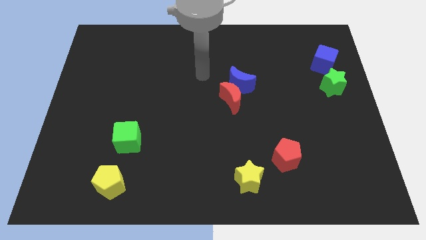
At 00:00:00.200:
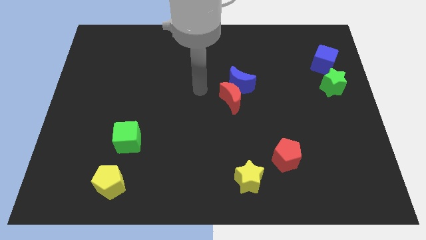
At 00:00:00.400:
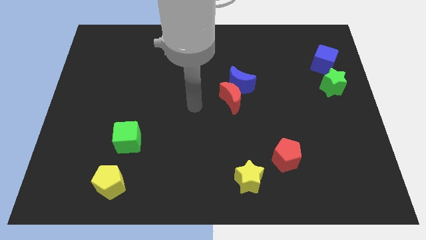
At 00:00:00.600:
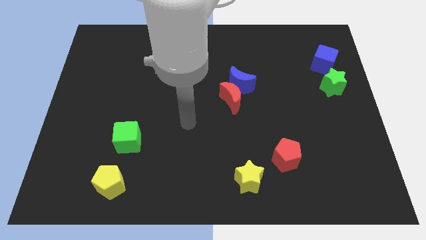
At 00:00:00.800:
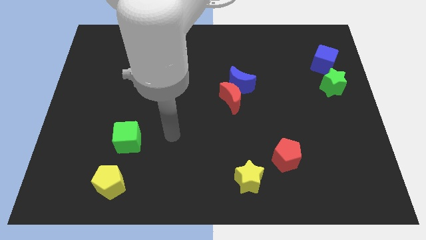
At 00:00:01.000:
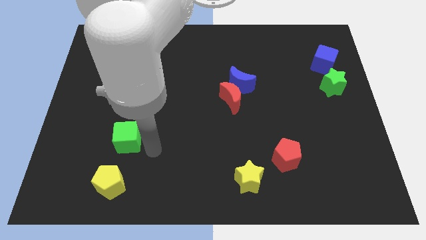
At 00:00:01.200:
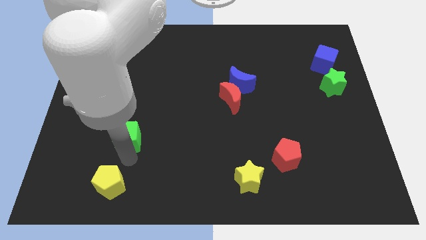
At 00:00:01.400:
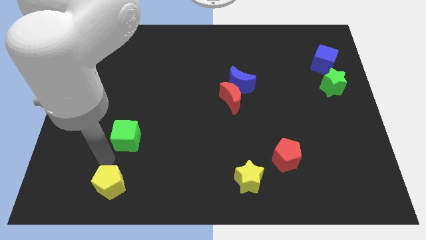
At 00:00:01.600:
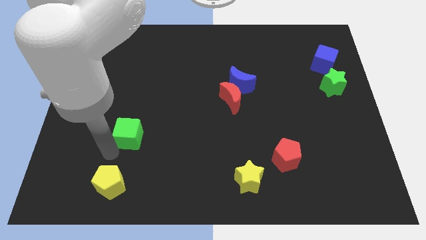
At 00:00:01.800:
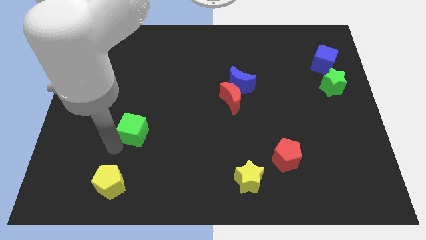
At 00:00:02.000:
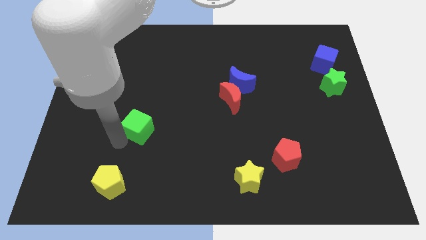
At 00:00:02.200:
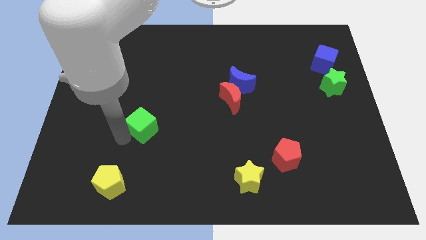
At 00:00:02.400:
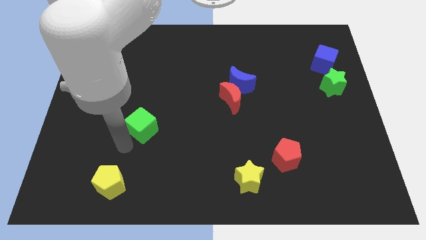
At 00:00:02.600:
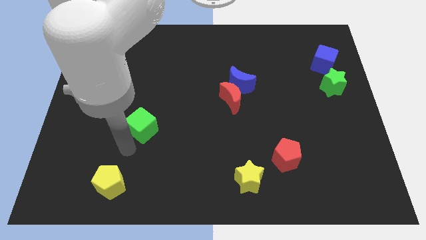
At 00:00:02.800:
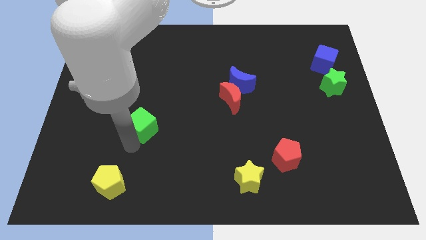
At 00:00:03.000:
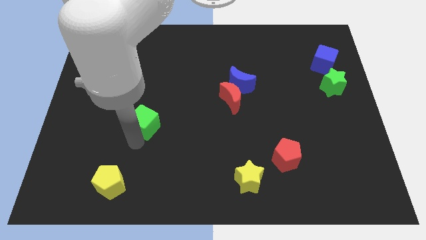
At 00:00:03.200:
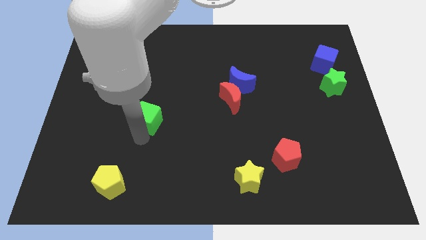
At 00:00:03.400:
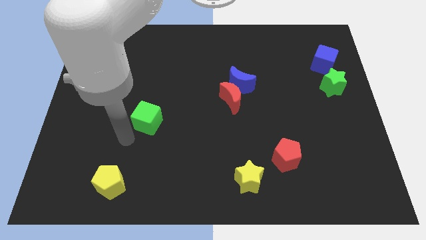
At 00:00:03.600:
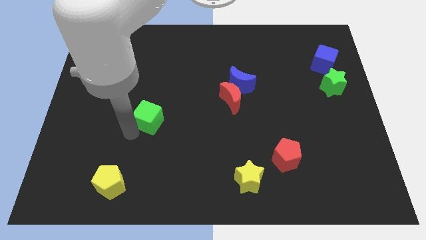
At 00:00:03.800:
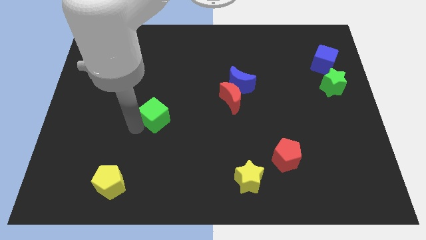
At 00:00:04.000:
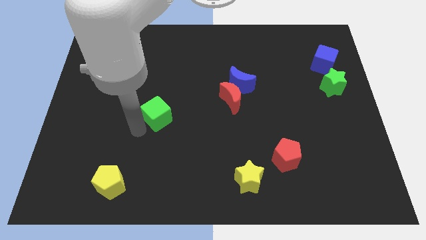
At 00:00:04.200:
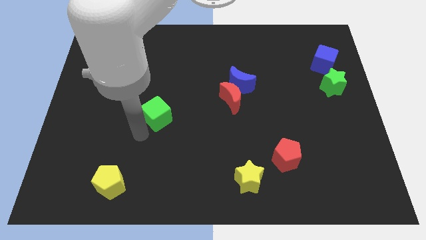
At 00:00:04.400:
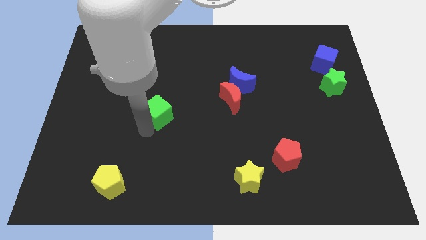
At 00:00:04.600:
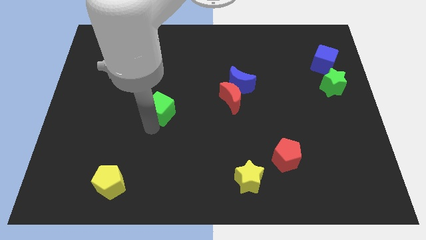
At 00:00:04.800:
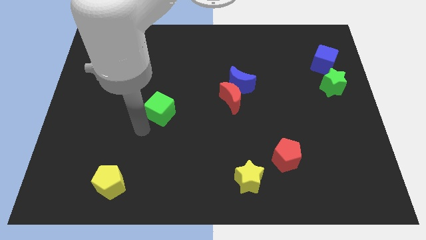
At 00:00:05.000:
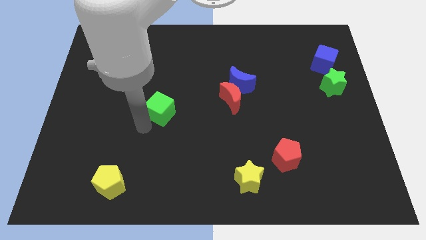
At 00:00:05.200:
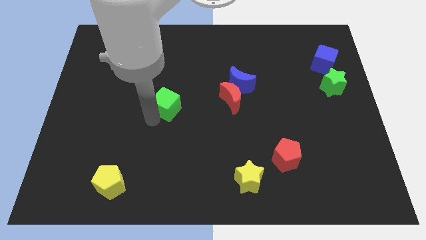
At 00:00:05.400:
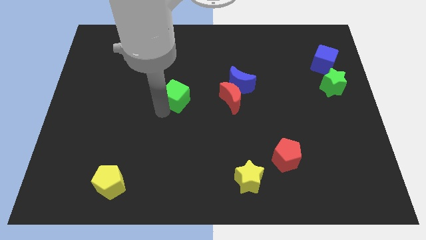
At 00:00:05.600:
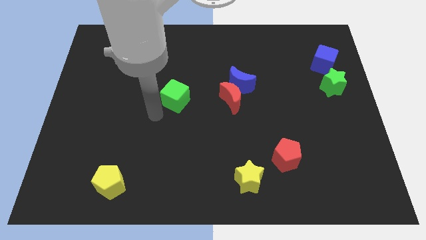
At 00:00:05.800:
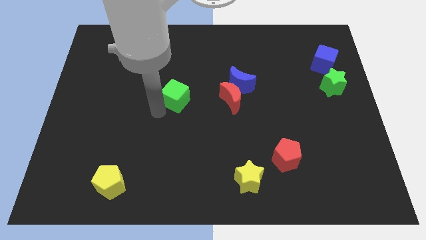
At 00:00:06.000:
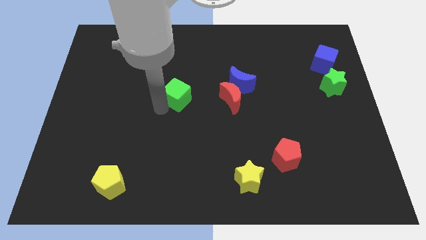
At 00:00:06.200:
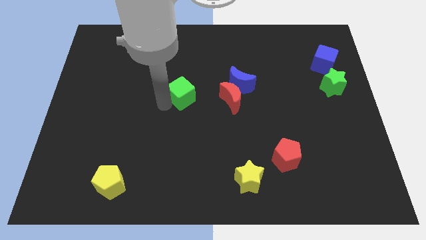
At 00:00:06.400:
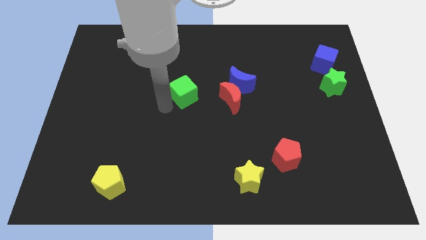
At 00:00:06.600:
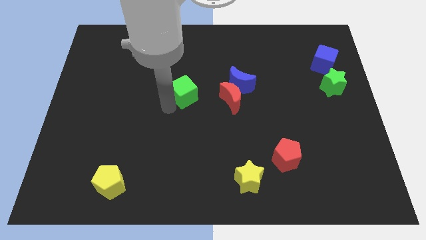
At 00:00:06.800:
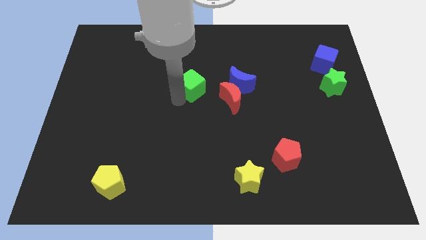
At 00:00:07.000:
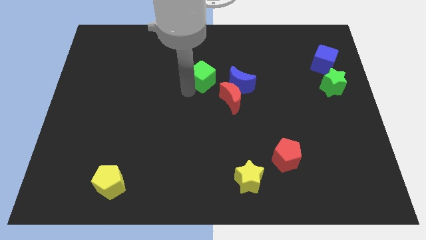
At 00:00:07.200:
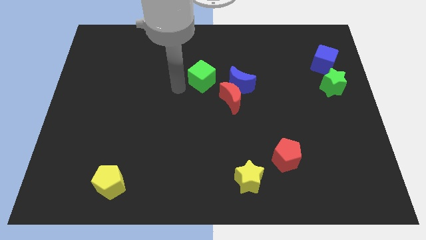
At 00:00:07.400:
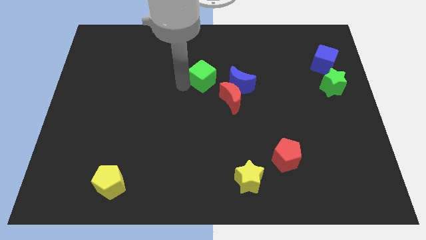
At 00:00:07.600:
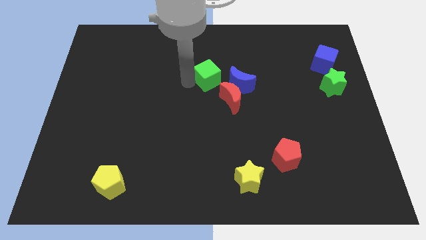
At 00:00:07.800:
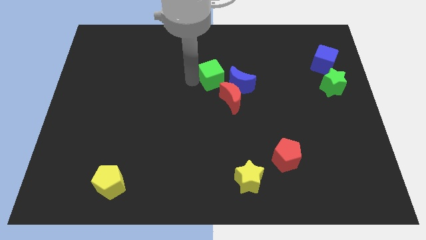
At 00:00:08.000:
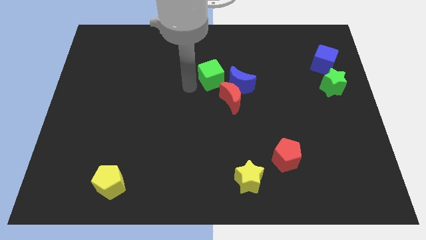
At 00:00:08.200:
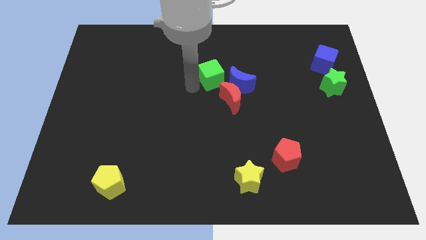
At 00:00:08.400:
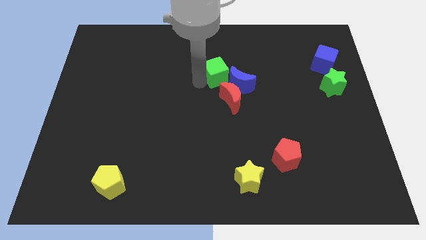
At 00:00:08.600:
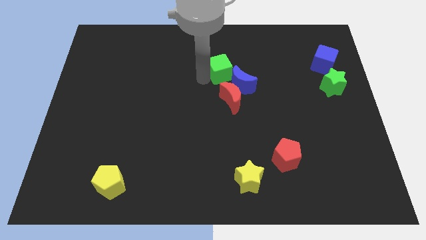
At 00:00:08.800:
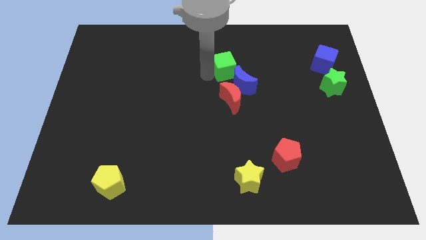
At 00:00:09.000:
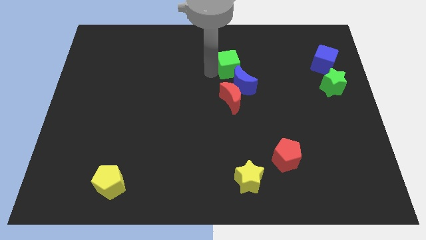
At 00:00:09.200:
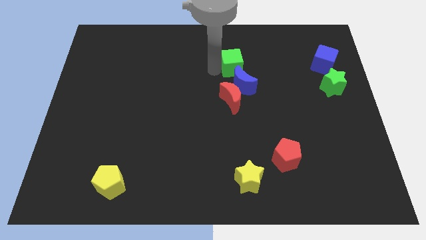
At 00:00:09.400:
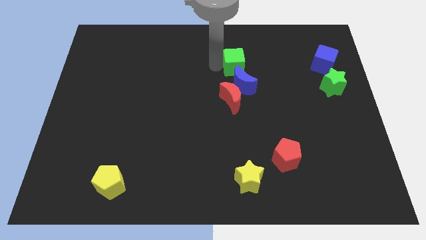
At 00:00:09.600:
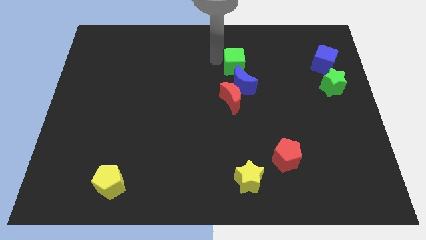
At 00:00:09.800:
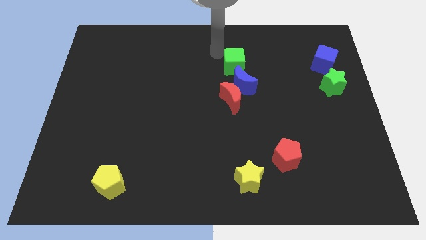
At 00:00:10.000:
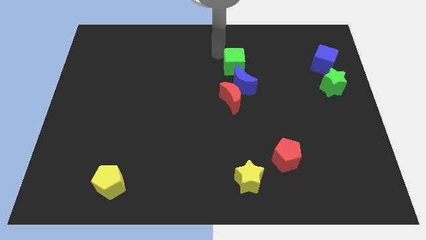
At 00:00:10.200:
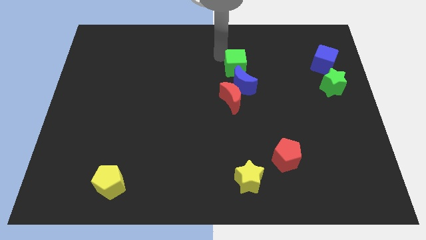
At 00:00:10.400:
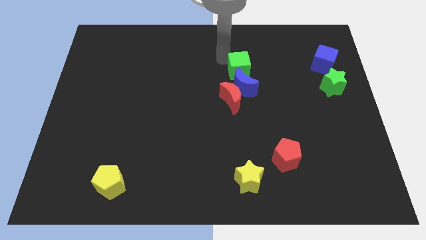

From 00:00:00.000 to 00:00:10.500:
push the green cube to the top right of the blue moon

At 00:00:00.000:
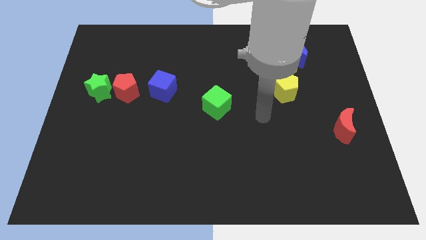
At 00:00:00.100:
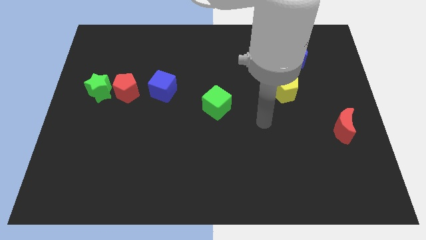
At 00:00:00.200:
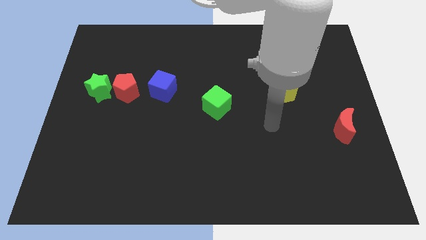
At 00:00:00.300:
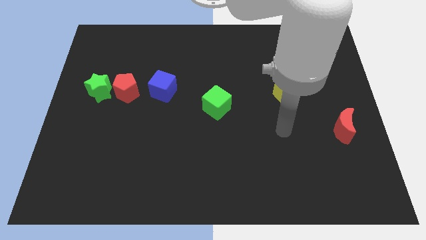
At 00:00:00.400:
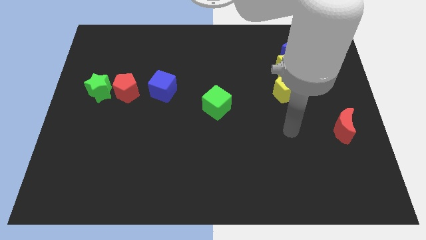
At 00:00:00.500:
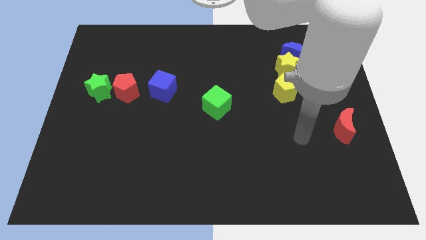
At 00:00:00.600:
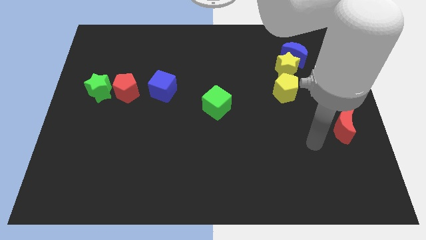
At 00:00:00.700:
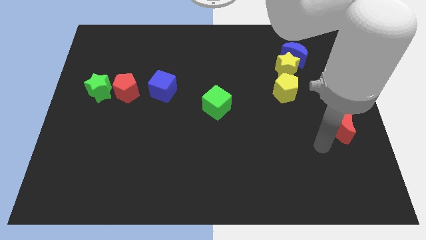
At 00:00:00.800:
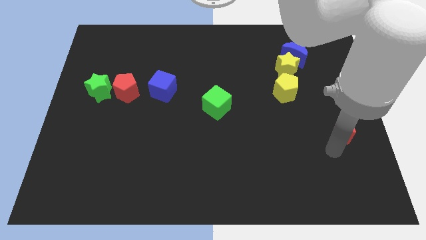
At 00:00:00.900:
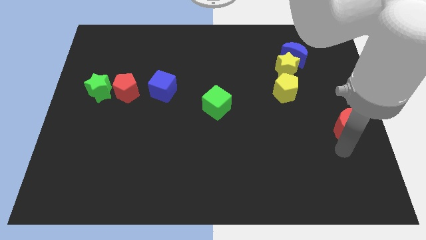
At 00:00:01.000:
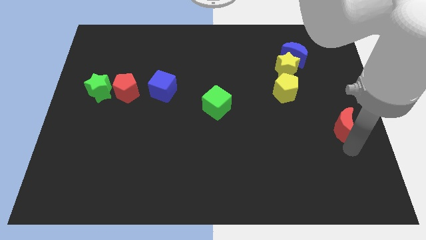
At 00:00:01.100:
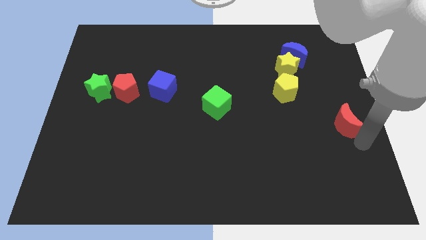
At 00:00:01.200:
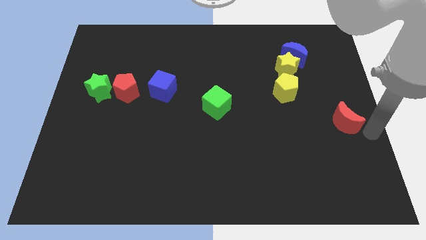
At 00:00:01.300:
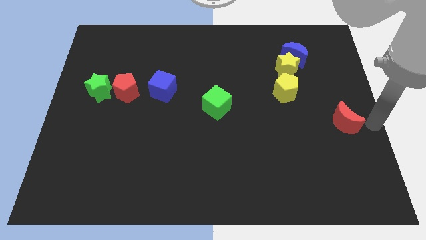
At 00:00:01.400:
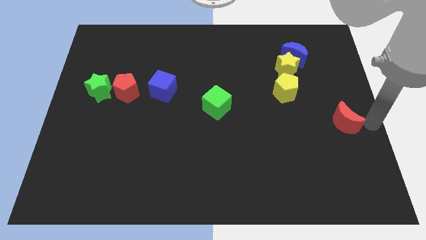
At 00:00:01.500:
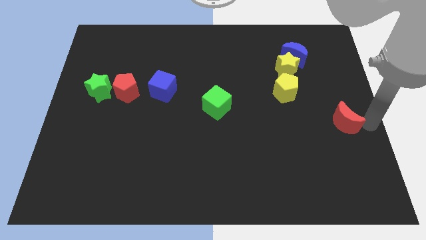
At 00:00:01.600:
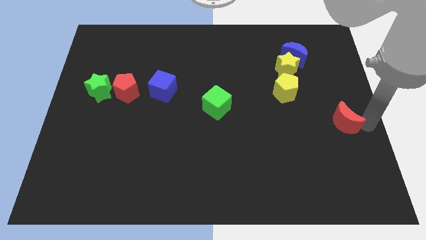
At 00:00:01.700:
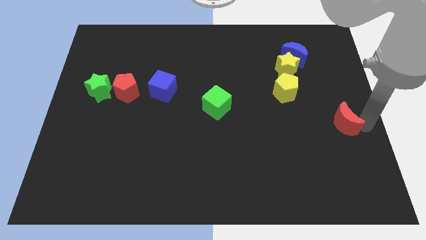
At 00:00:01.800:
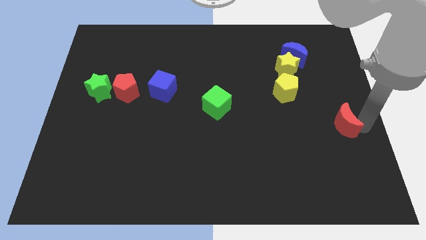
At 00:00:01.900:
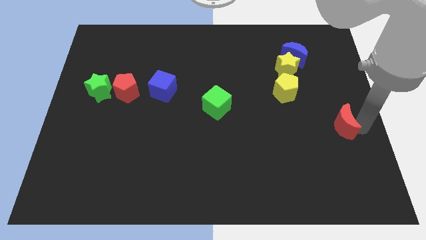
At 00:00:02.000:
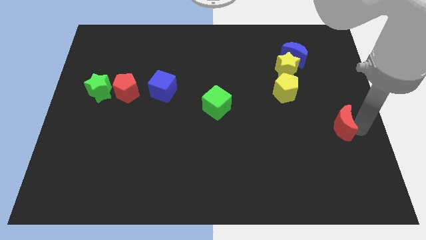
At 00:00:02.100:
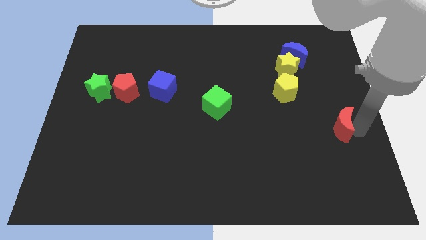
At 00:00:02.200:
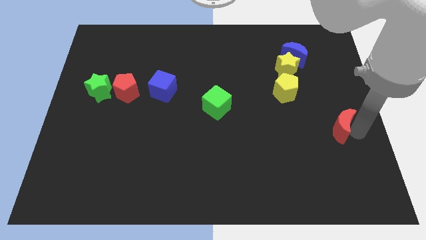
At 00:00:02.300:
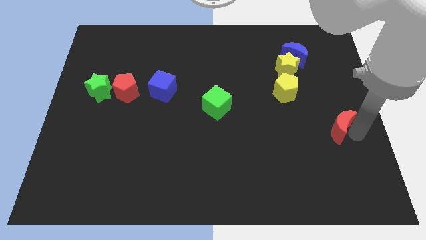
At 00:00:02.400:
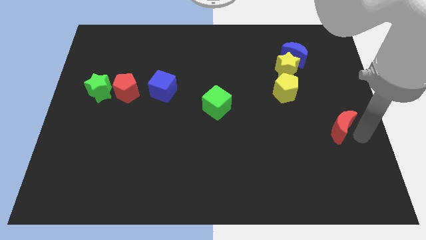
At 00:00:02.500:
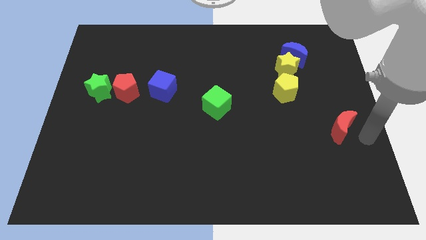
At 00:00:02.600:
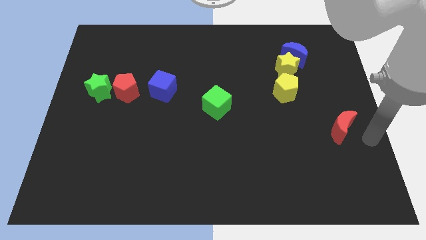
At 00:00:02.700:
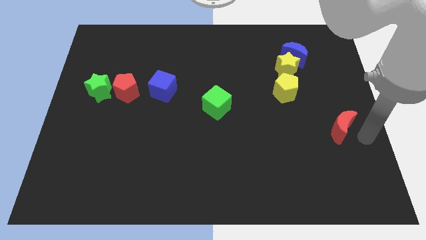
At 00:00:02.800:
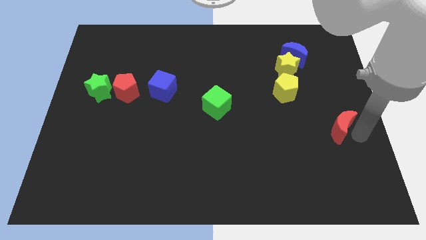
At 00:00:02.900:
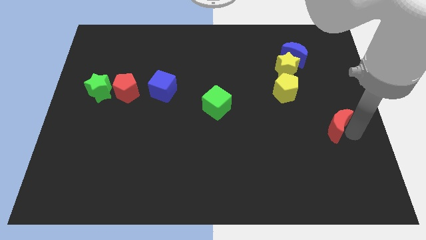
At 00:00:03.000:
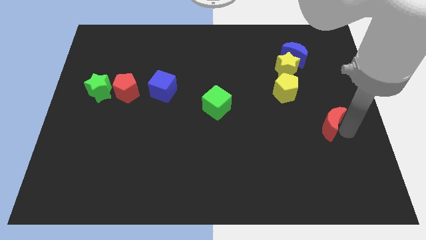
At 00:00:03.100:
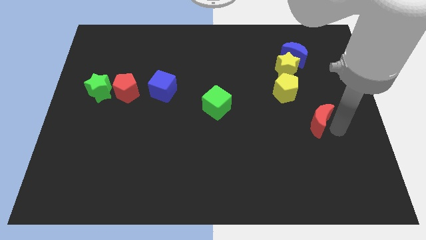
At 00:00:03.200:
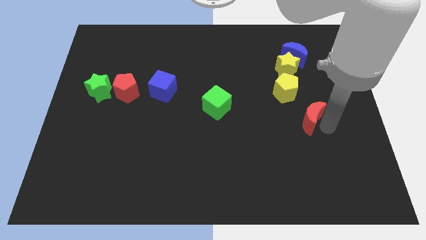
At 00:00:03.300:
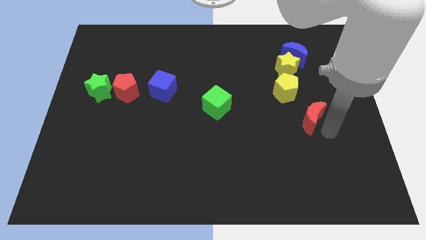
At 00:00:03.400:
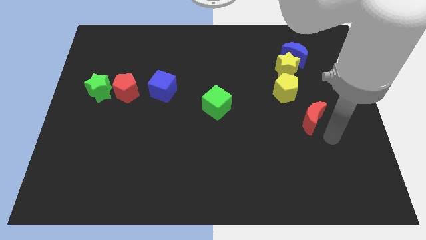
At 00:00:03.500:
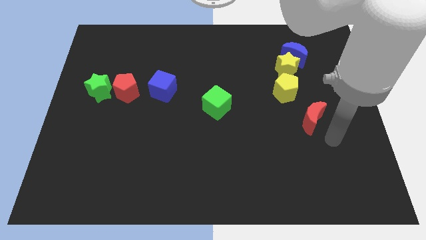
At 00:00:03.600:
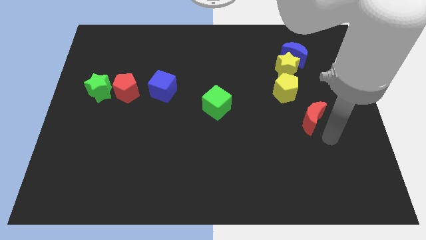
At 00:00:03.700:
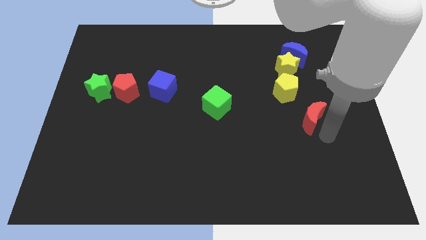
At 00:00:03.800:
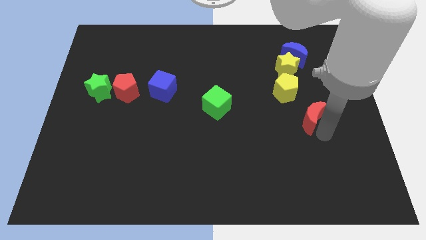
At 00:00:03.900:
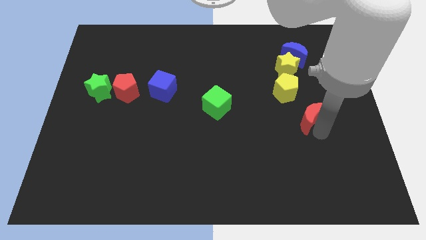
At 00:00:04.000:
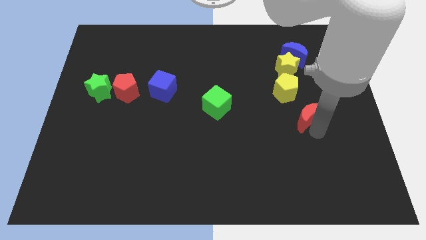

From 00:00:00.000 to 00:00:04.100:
put the red moon to the bottom side of the yellow star
